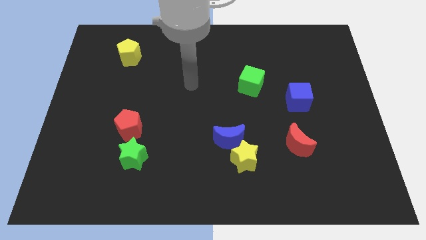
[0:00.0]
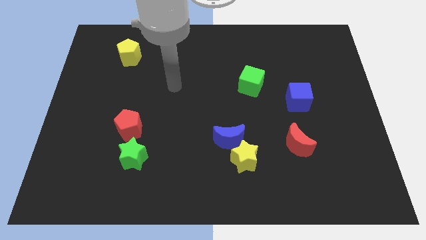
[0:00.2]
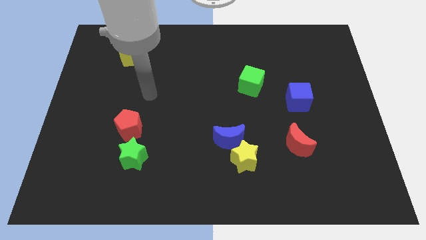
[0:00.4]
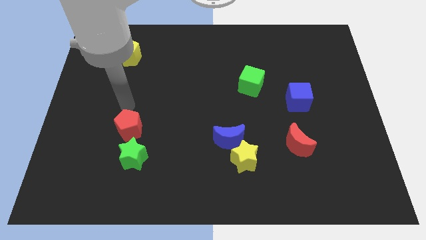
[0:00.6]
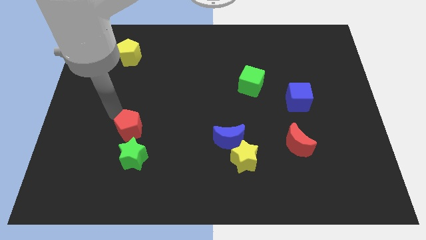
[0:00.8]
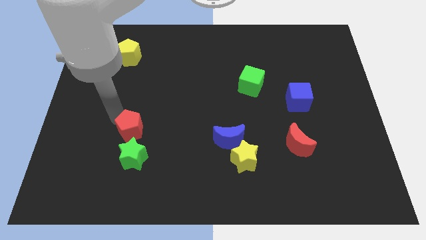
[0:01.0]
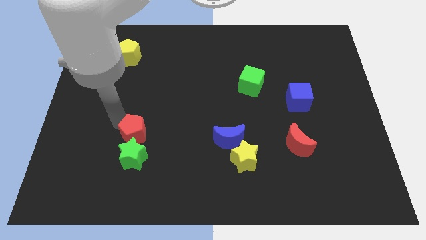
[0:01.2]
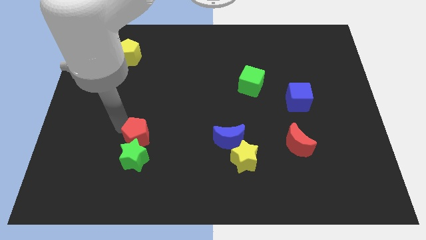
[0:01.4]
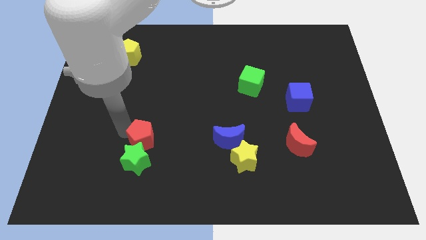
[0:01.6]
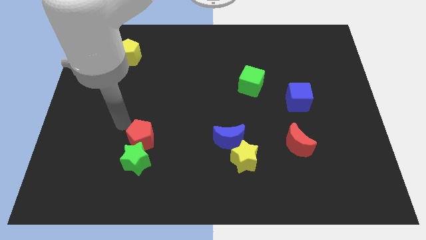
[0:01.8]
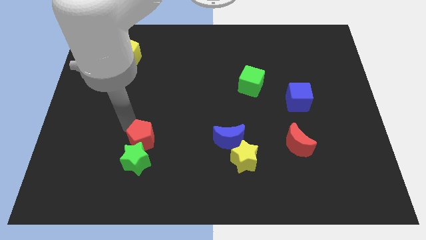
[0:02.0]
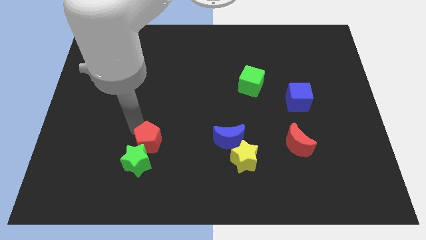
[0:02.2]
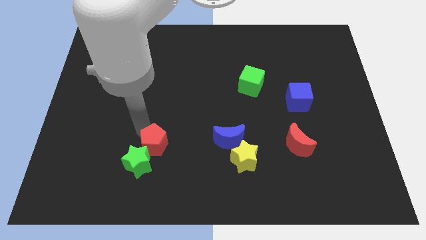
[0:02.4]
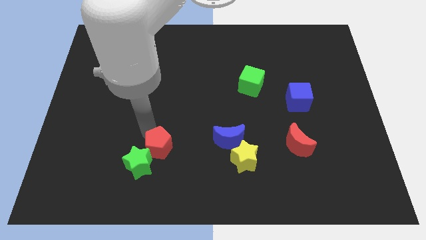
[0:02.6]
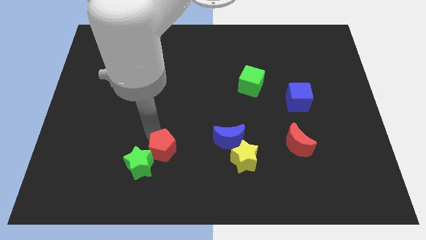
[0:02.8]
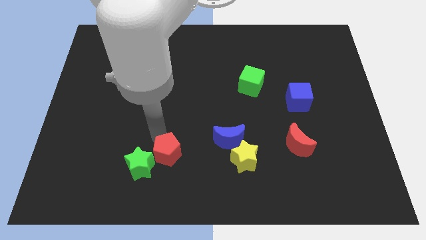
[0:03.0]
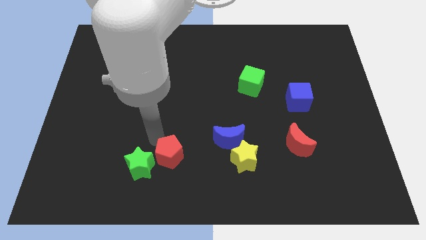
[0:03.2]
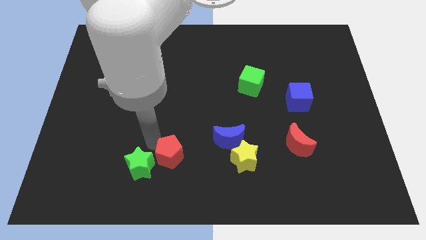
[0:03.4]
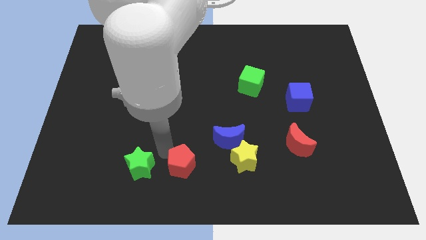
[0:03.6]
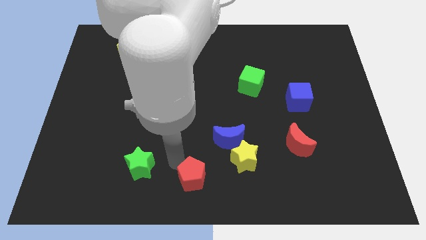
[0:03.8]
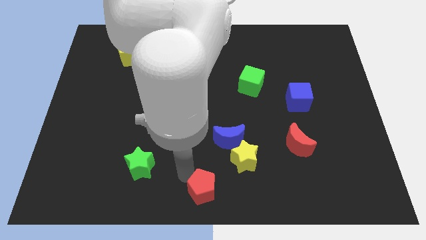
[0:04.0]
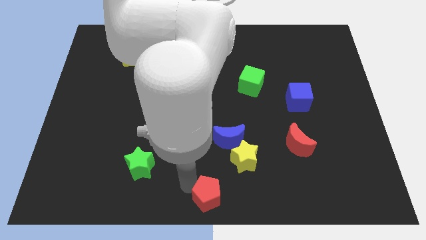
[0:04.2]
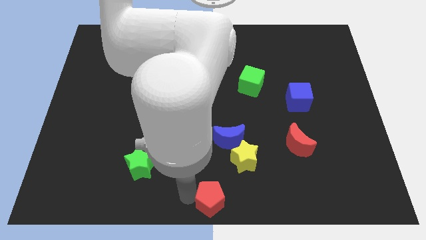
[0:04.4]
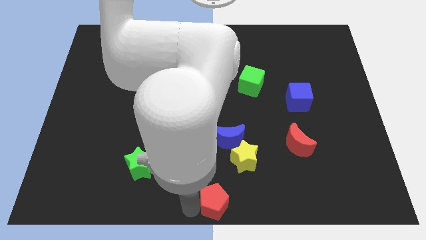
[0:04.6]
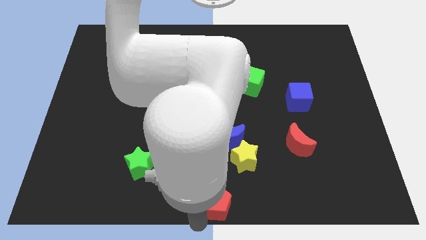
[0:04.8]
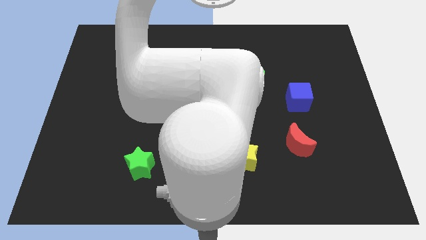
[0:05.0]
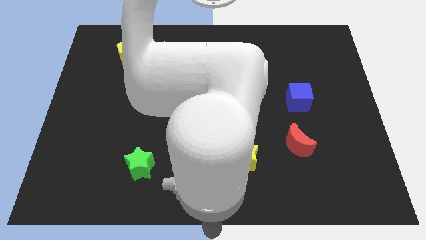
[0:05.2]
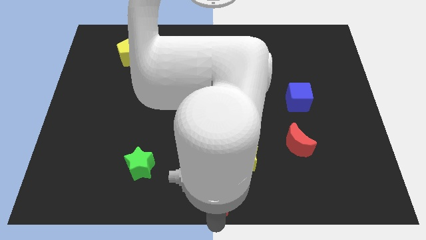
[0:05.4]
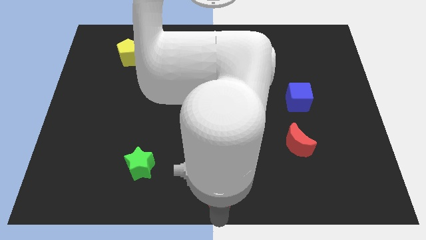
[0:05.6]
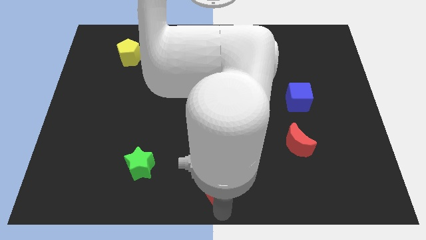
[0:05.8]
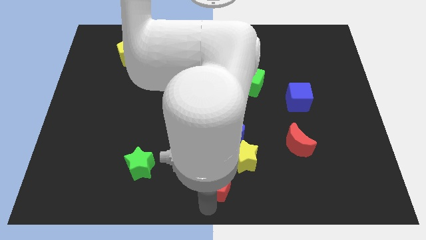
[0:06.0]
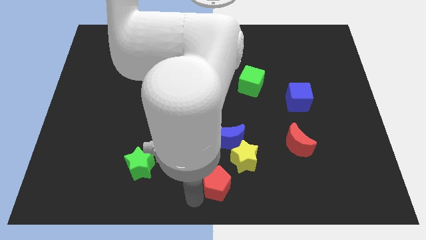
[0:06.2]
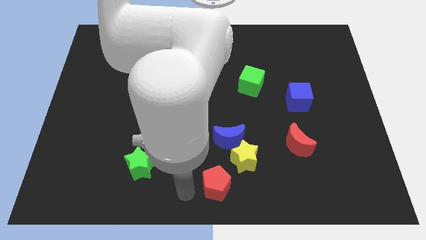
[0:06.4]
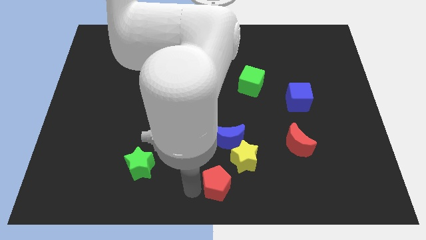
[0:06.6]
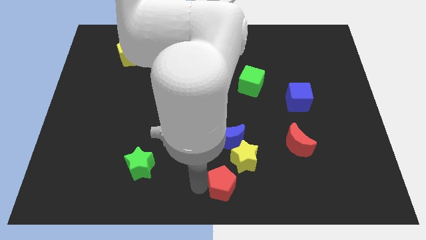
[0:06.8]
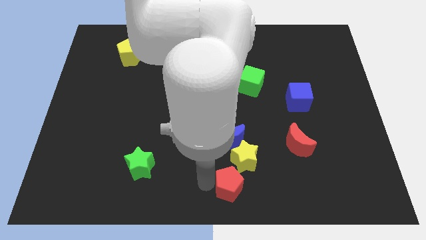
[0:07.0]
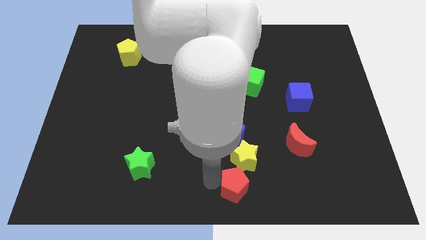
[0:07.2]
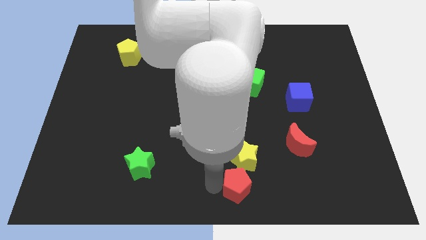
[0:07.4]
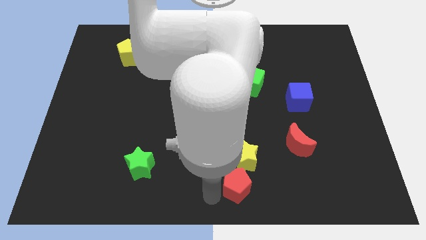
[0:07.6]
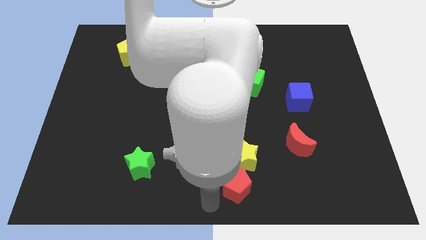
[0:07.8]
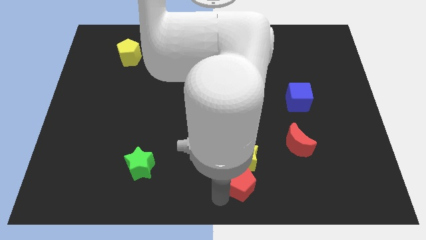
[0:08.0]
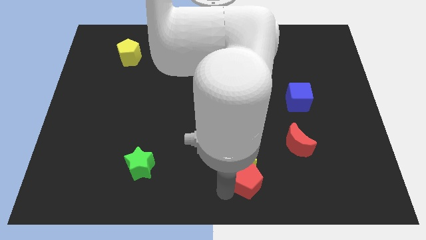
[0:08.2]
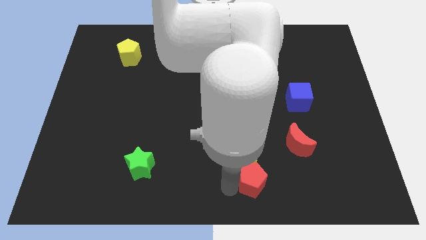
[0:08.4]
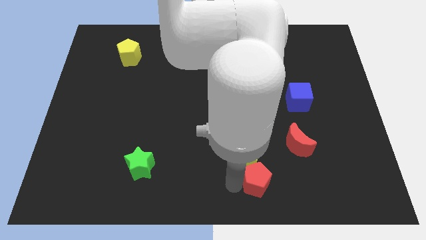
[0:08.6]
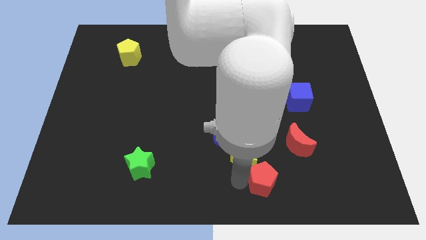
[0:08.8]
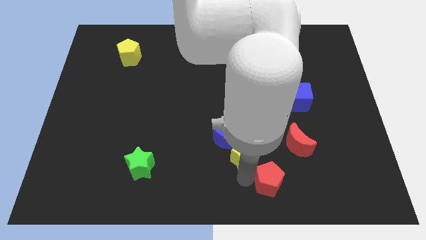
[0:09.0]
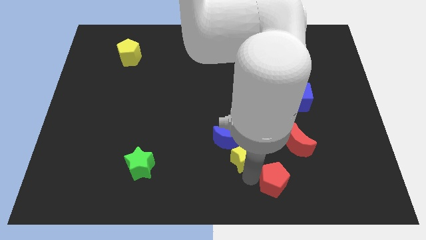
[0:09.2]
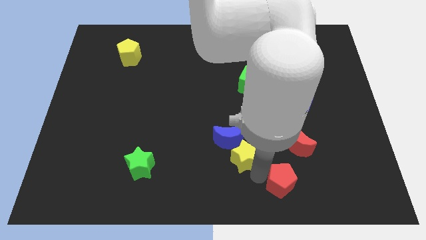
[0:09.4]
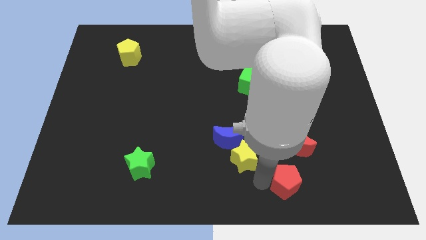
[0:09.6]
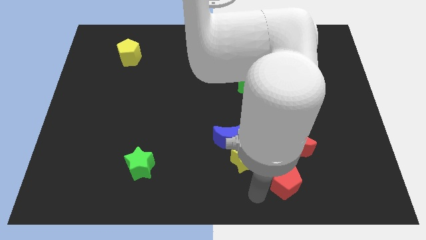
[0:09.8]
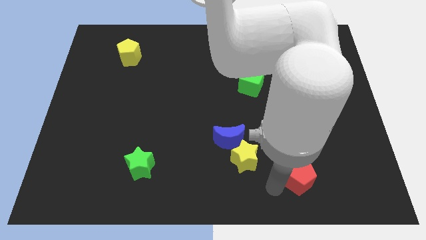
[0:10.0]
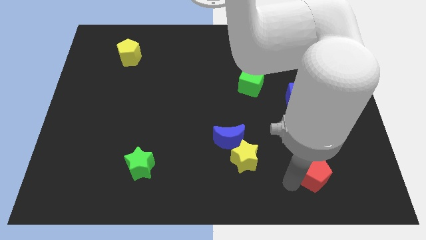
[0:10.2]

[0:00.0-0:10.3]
slide the red pentagon diagonally down and to the right of the red moon

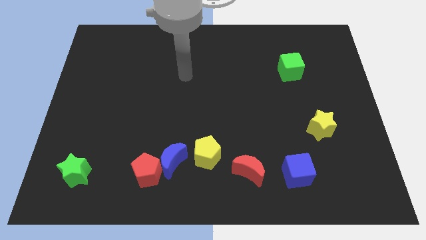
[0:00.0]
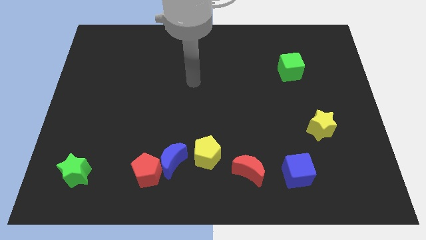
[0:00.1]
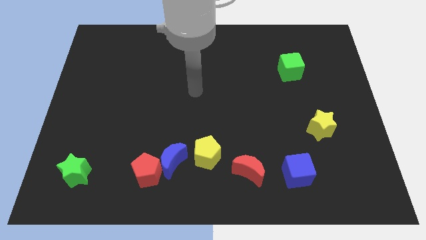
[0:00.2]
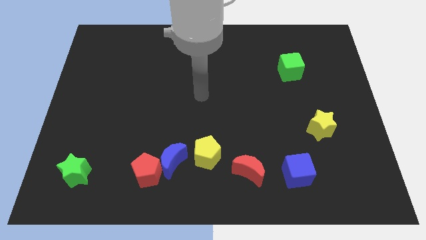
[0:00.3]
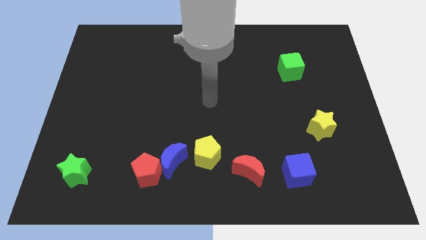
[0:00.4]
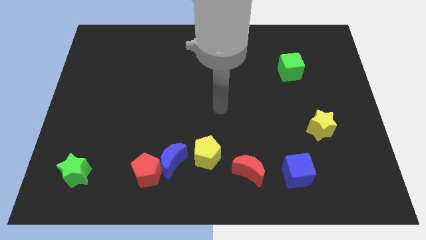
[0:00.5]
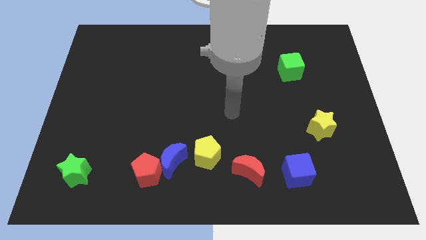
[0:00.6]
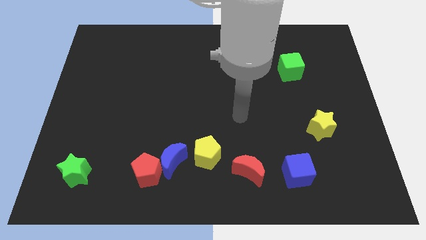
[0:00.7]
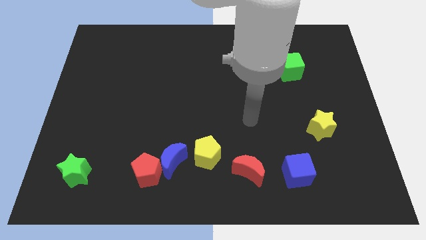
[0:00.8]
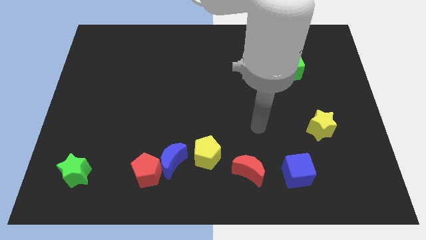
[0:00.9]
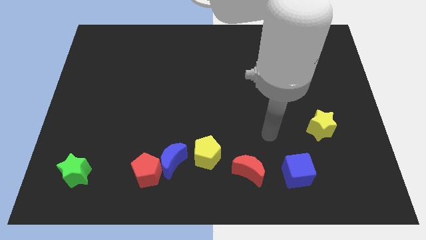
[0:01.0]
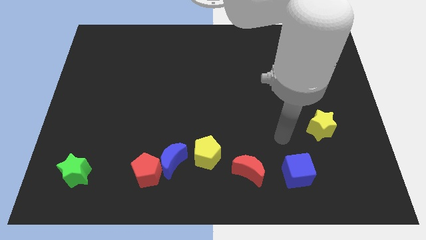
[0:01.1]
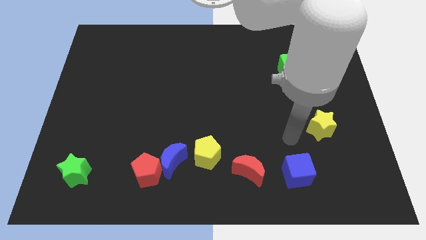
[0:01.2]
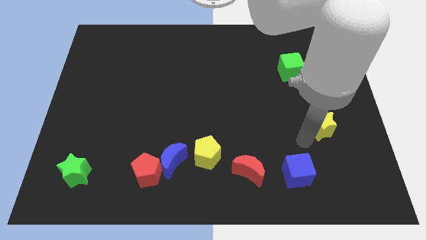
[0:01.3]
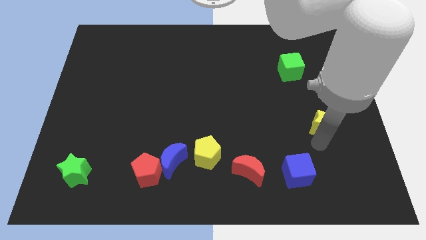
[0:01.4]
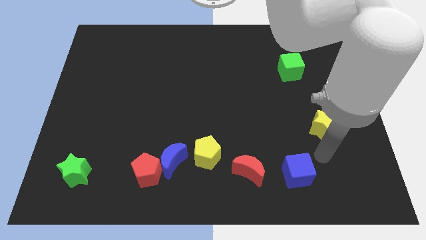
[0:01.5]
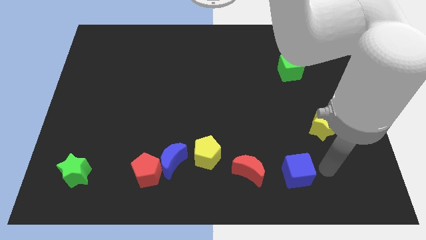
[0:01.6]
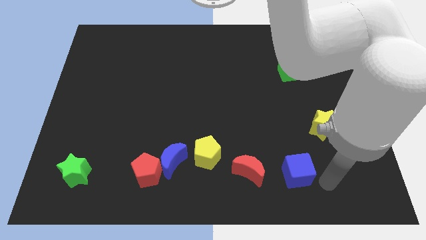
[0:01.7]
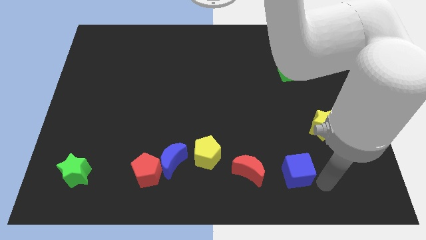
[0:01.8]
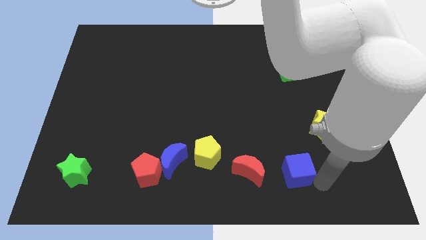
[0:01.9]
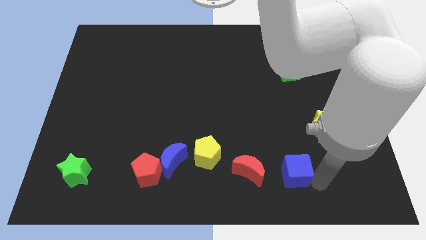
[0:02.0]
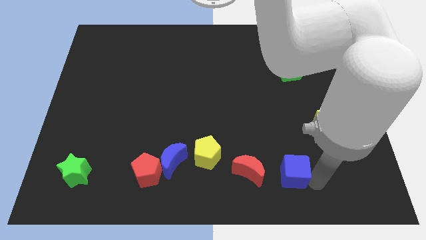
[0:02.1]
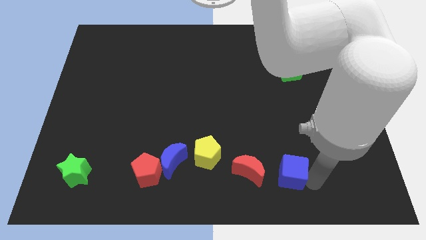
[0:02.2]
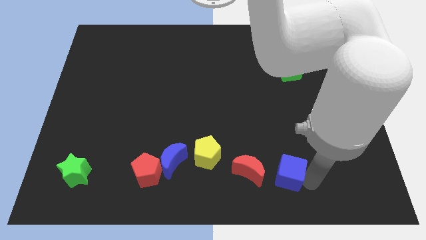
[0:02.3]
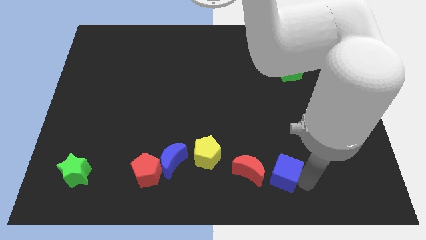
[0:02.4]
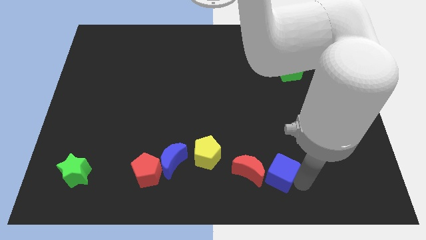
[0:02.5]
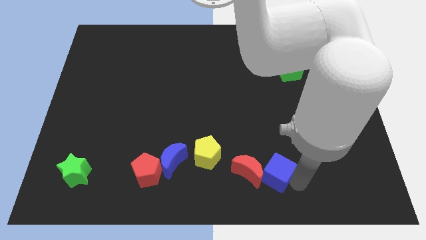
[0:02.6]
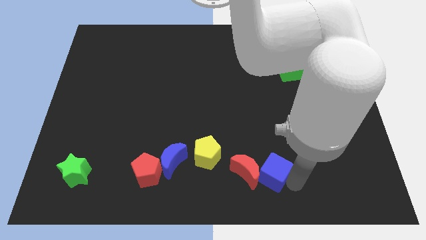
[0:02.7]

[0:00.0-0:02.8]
move the blue cube to the right of the yellow pentagon

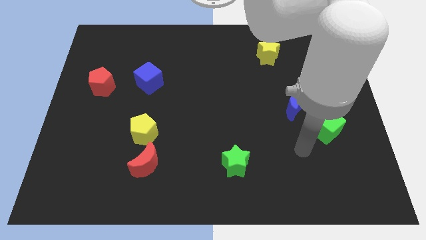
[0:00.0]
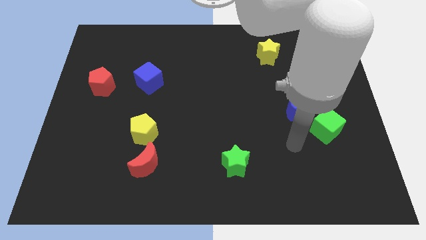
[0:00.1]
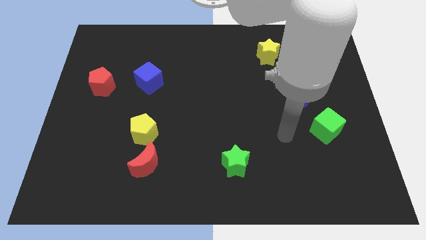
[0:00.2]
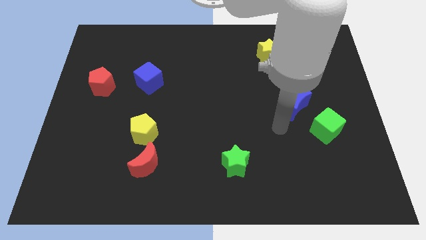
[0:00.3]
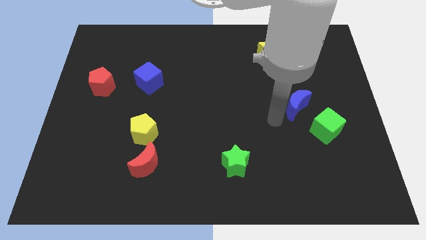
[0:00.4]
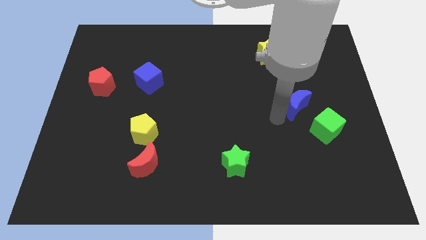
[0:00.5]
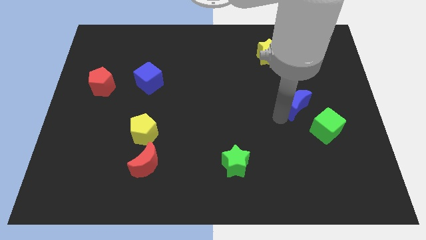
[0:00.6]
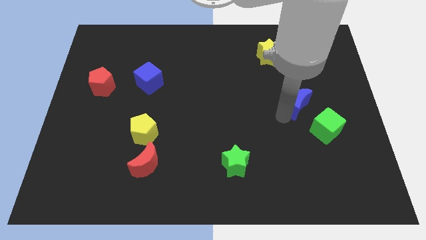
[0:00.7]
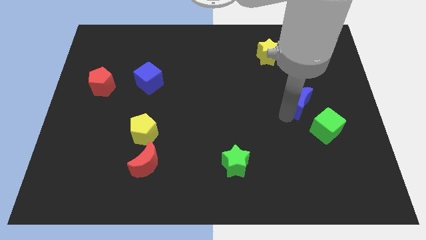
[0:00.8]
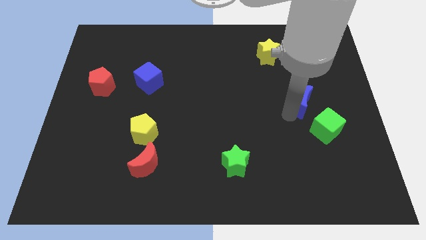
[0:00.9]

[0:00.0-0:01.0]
put the blue moon to the top side of the green cube
